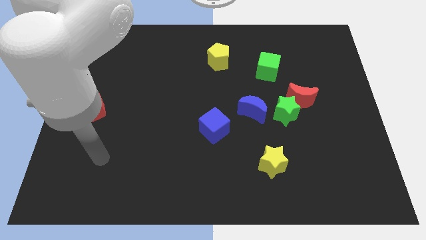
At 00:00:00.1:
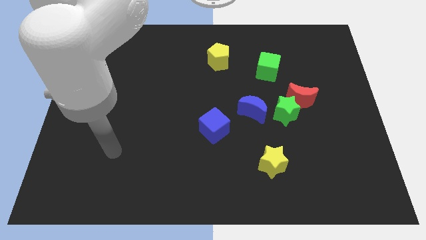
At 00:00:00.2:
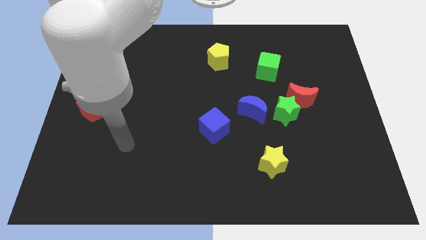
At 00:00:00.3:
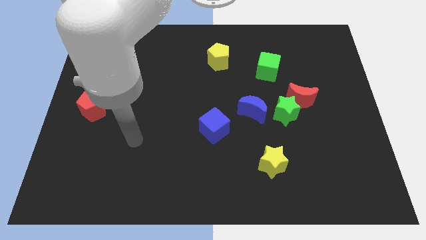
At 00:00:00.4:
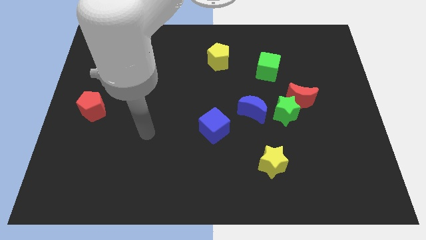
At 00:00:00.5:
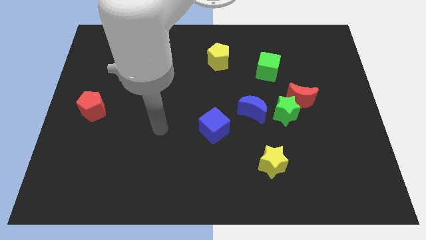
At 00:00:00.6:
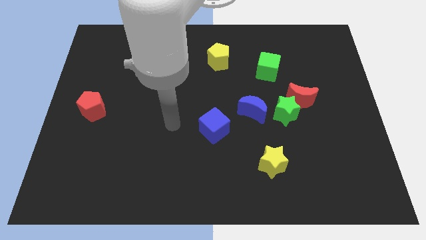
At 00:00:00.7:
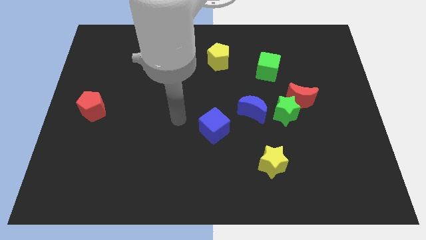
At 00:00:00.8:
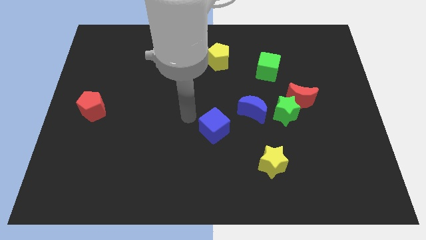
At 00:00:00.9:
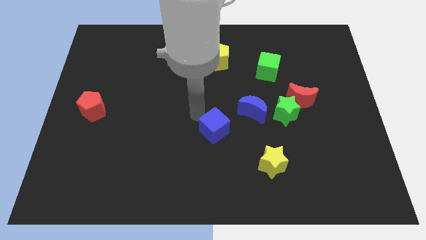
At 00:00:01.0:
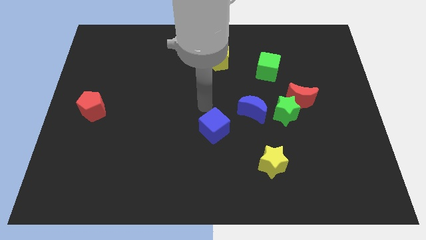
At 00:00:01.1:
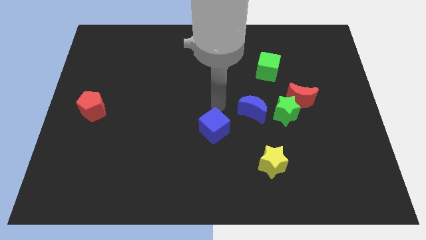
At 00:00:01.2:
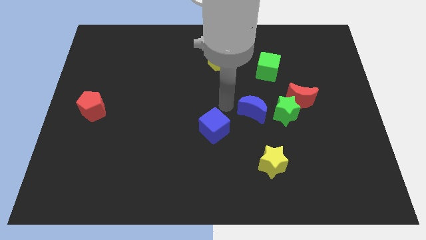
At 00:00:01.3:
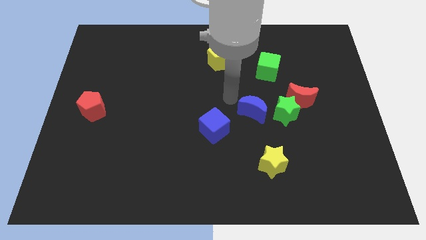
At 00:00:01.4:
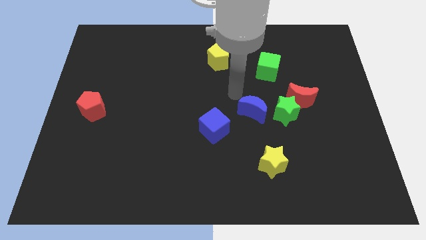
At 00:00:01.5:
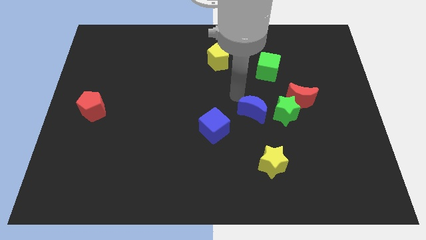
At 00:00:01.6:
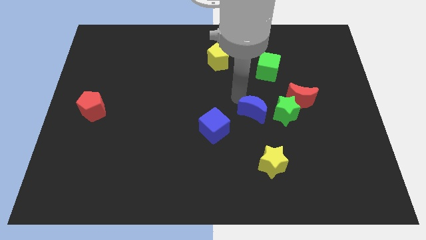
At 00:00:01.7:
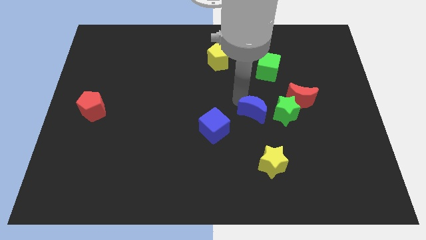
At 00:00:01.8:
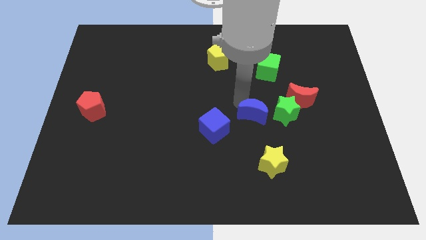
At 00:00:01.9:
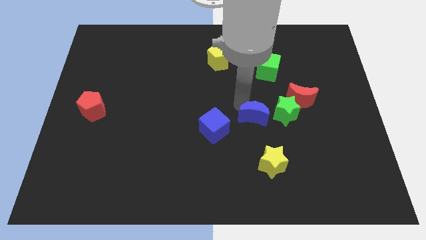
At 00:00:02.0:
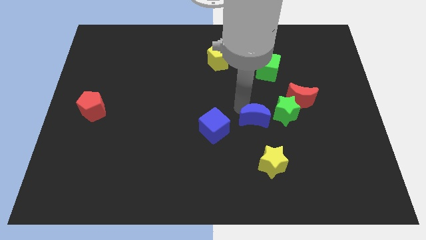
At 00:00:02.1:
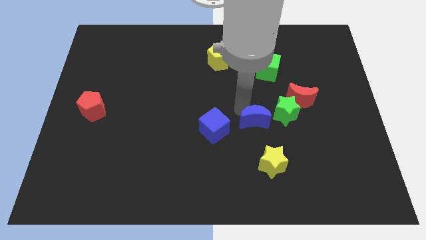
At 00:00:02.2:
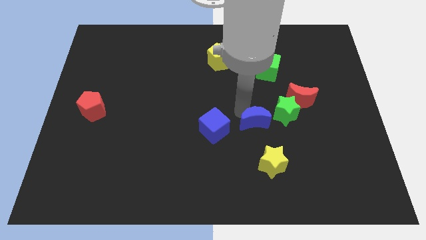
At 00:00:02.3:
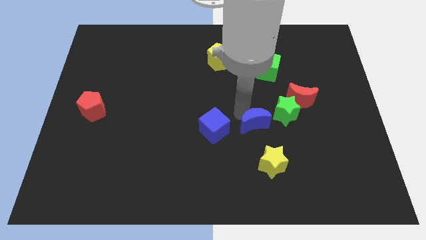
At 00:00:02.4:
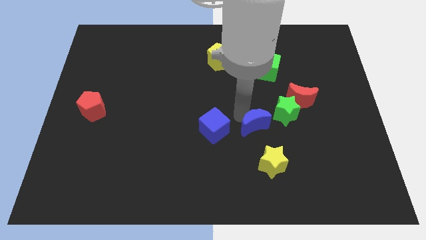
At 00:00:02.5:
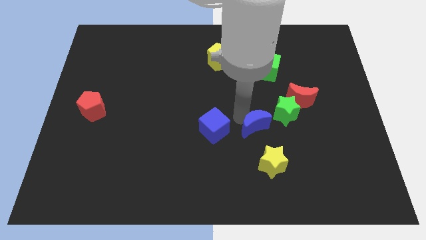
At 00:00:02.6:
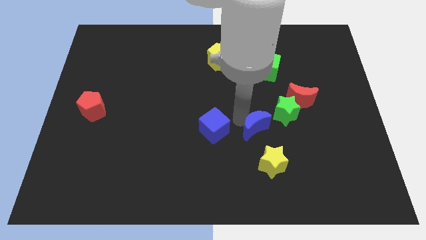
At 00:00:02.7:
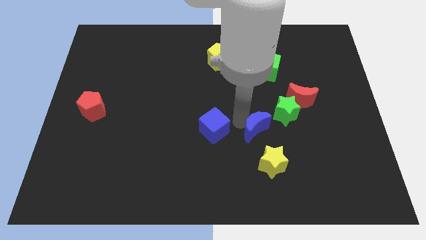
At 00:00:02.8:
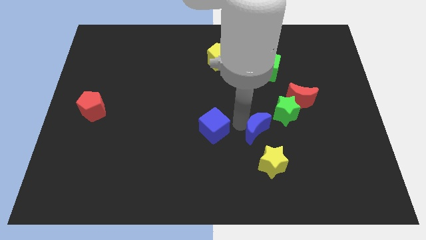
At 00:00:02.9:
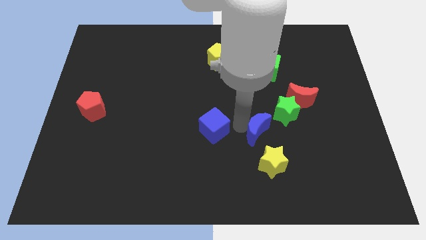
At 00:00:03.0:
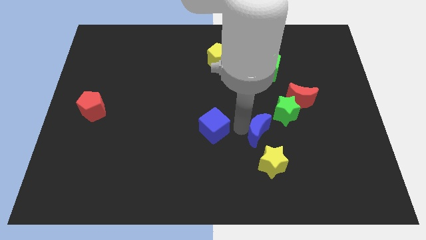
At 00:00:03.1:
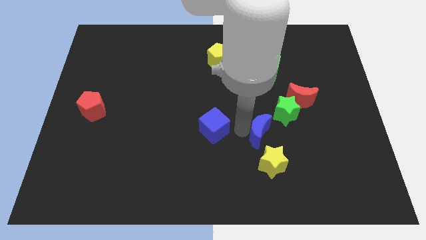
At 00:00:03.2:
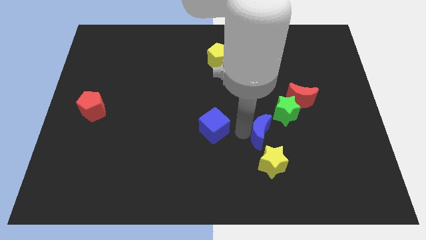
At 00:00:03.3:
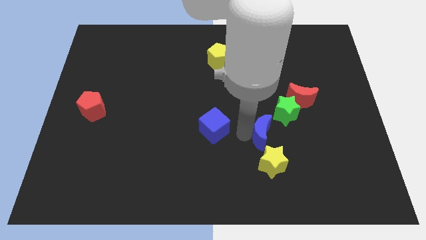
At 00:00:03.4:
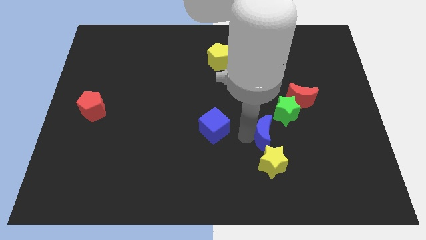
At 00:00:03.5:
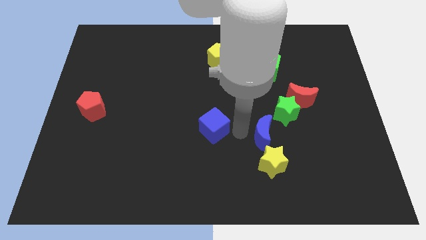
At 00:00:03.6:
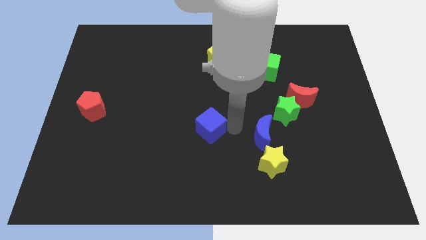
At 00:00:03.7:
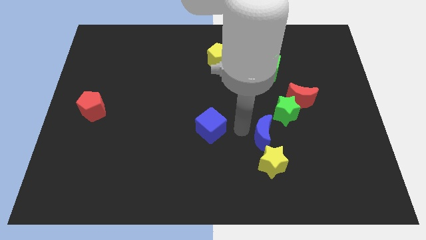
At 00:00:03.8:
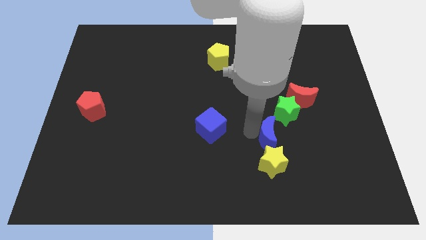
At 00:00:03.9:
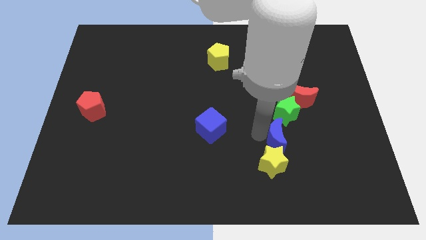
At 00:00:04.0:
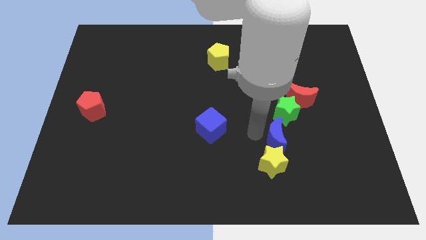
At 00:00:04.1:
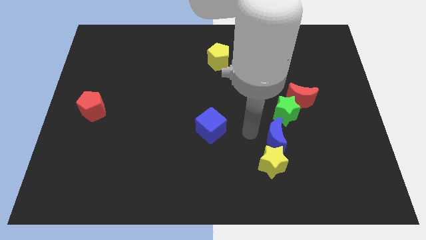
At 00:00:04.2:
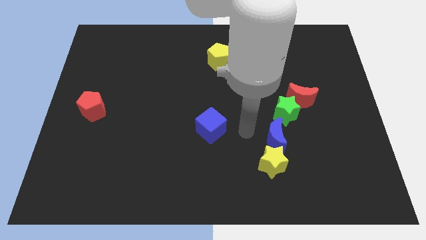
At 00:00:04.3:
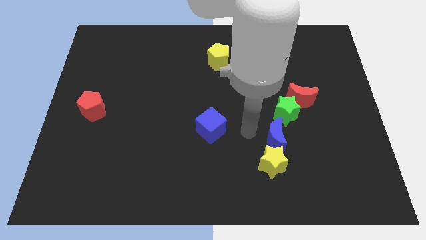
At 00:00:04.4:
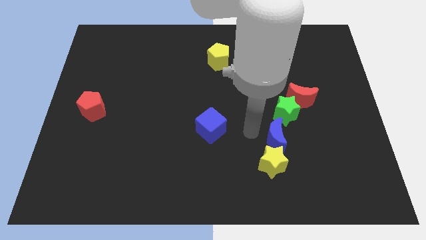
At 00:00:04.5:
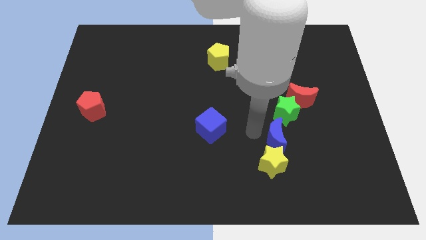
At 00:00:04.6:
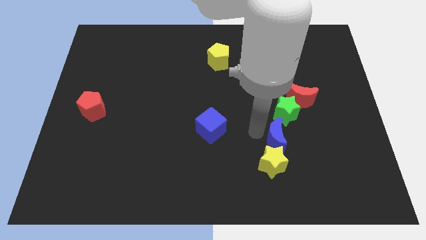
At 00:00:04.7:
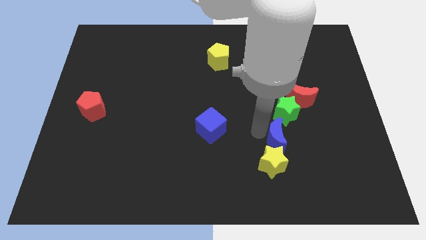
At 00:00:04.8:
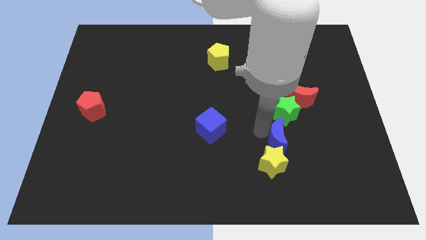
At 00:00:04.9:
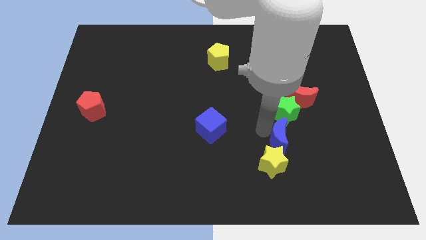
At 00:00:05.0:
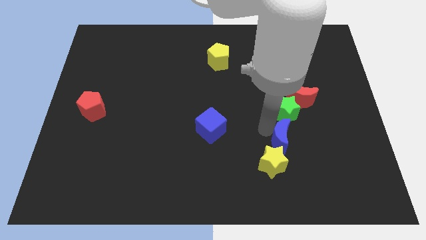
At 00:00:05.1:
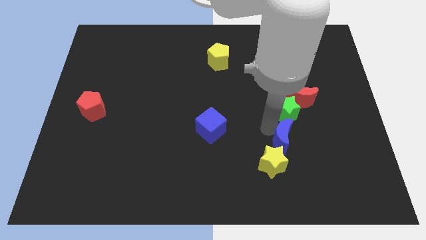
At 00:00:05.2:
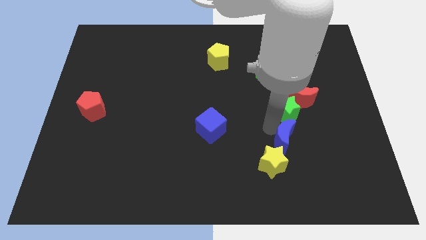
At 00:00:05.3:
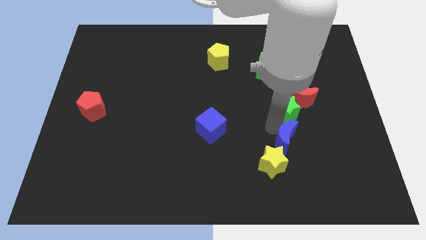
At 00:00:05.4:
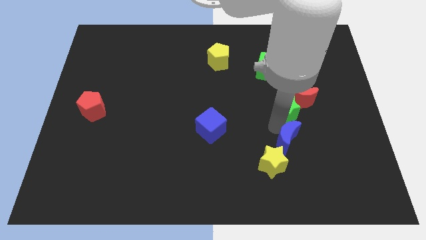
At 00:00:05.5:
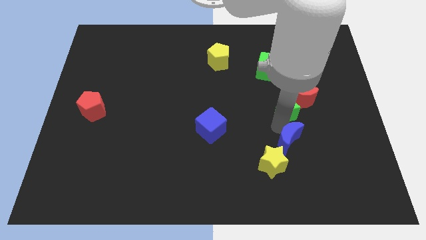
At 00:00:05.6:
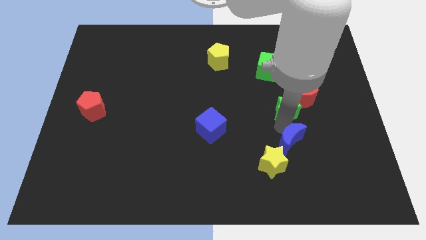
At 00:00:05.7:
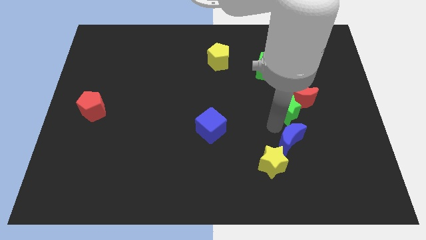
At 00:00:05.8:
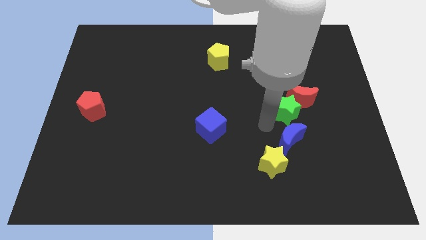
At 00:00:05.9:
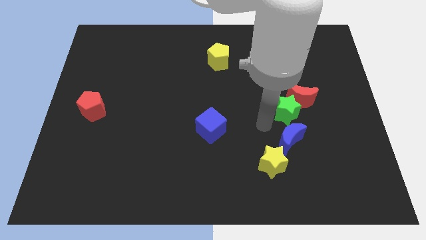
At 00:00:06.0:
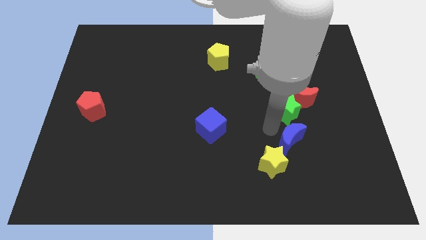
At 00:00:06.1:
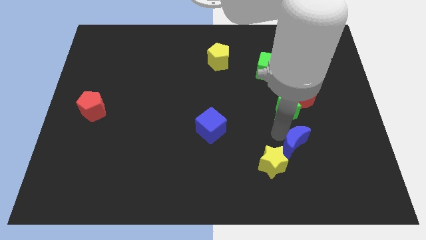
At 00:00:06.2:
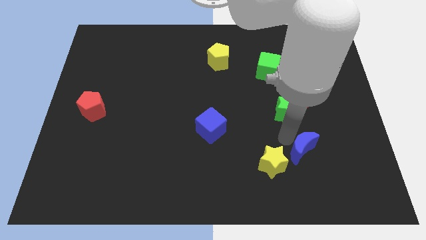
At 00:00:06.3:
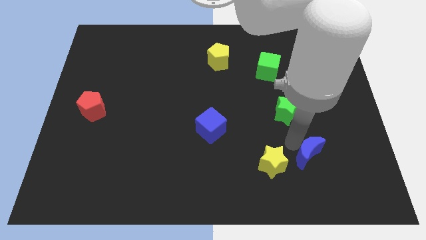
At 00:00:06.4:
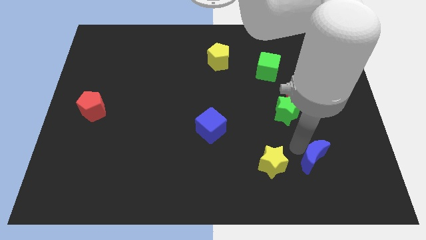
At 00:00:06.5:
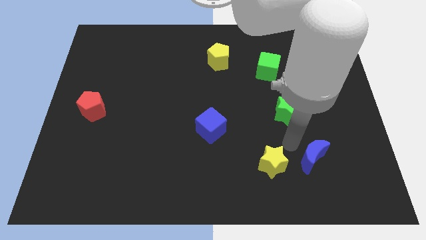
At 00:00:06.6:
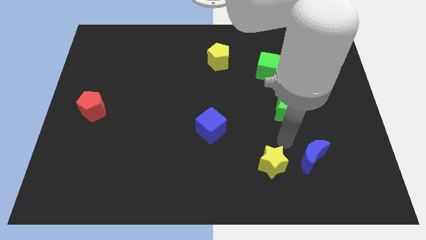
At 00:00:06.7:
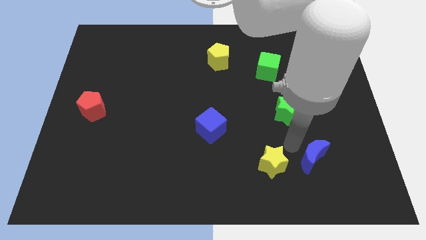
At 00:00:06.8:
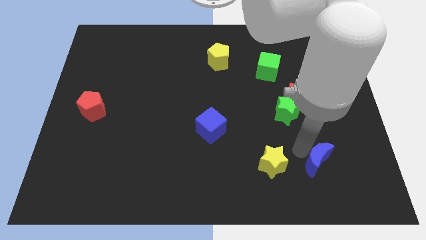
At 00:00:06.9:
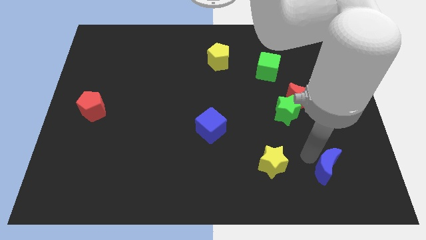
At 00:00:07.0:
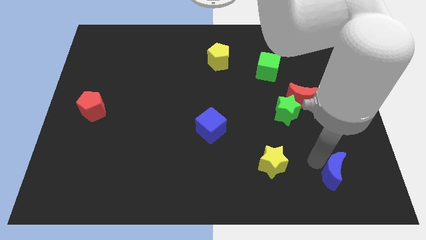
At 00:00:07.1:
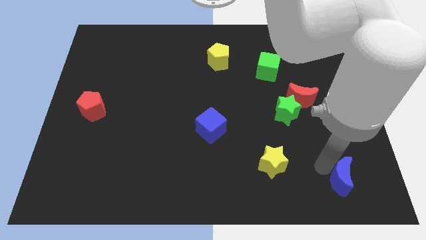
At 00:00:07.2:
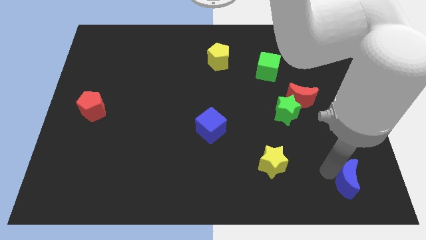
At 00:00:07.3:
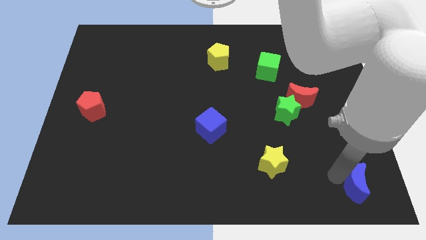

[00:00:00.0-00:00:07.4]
put the blue moon to the bottom right
